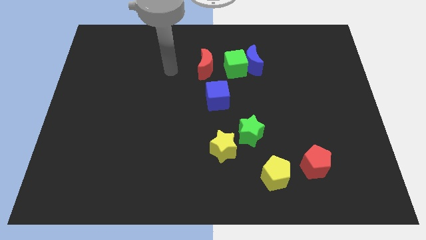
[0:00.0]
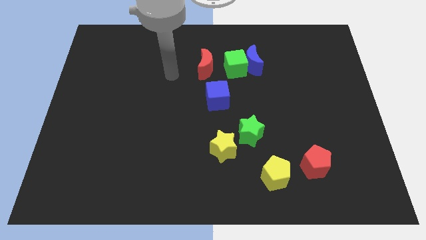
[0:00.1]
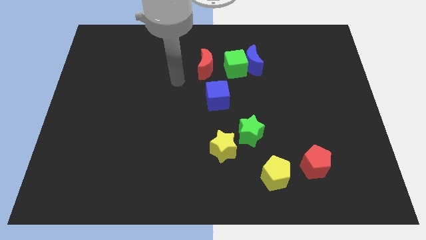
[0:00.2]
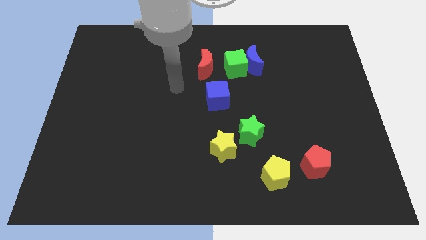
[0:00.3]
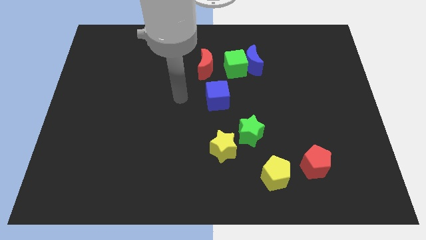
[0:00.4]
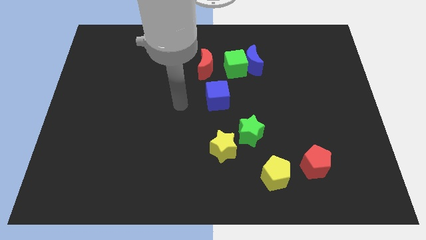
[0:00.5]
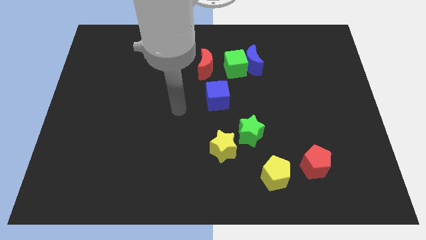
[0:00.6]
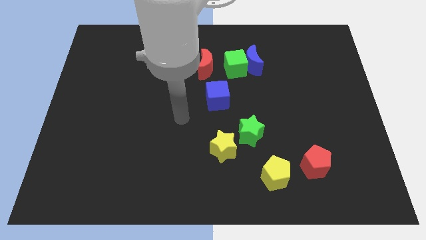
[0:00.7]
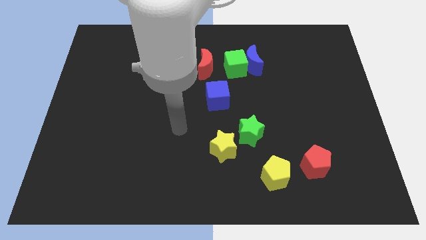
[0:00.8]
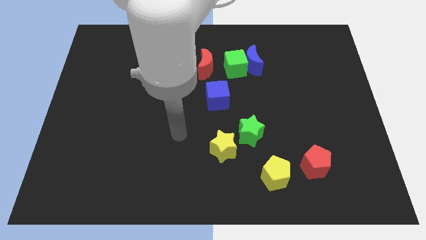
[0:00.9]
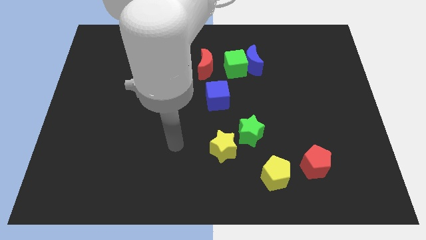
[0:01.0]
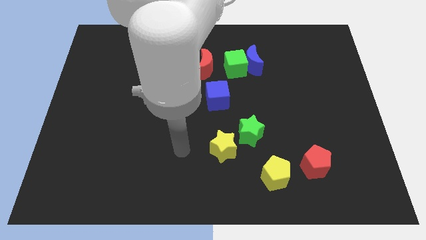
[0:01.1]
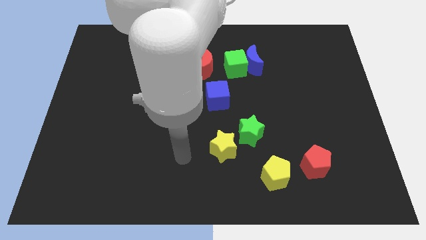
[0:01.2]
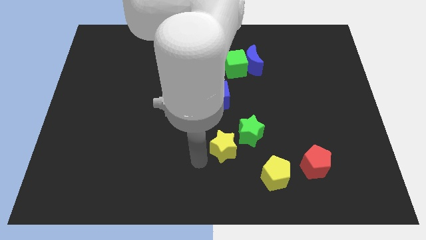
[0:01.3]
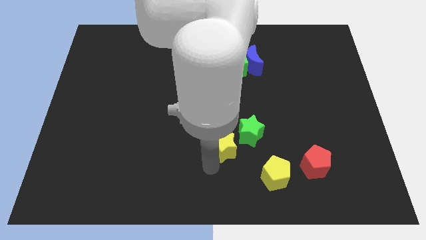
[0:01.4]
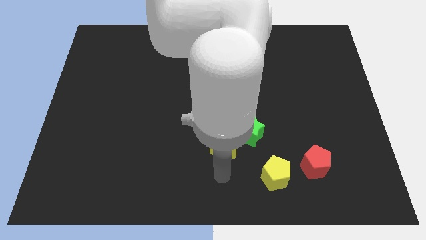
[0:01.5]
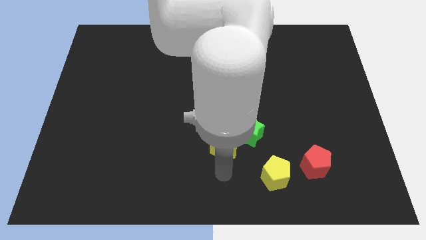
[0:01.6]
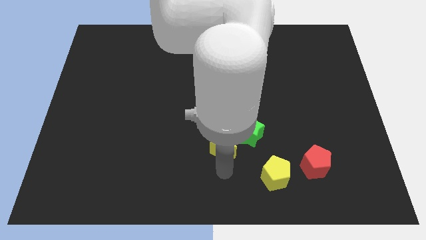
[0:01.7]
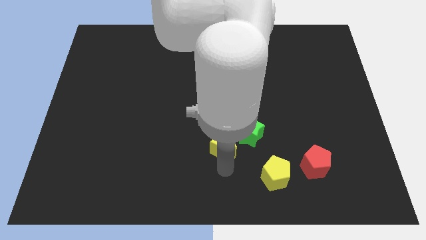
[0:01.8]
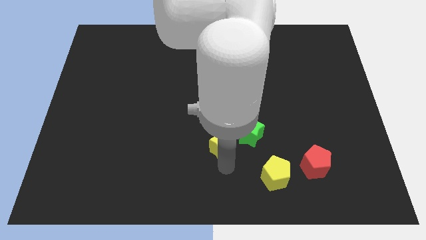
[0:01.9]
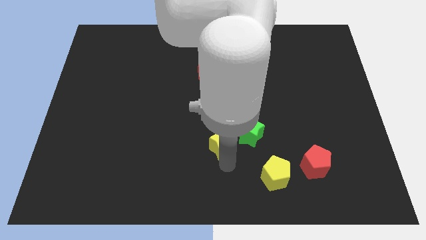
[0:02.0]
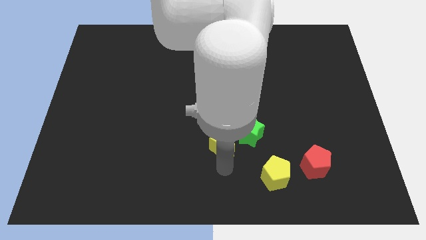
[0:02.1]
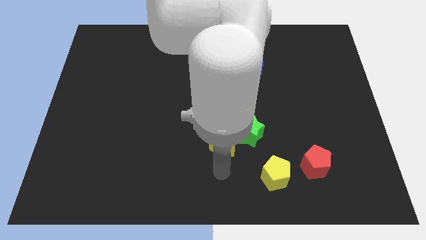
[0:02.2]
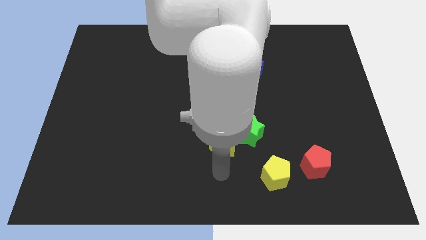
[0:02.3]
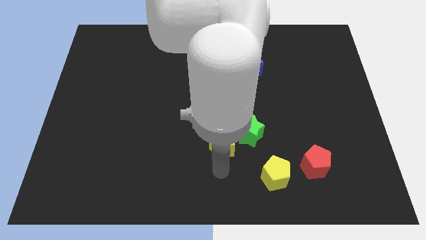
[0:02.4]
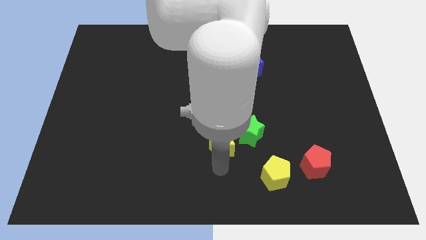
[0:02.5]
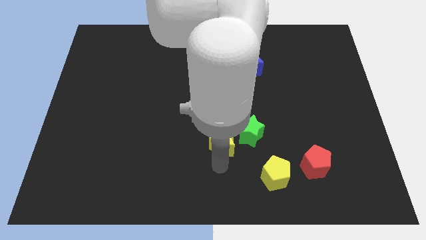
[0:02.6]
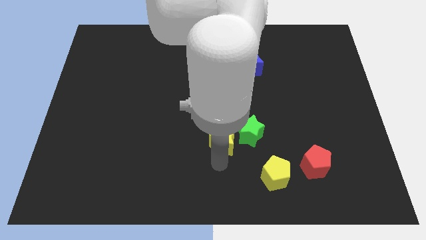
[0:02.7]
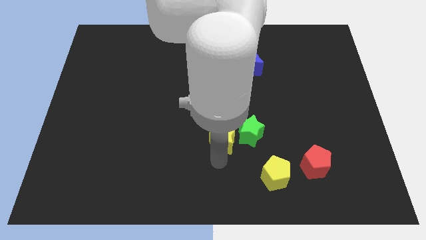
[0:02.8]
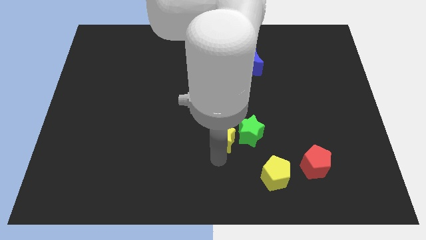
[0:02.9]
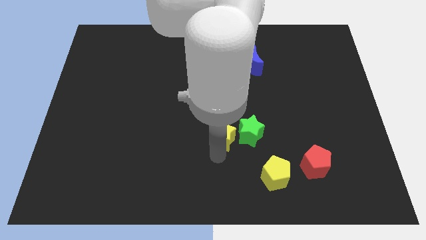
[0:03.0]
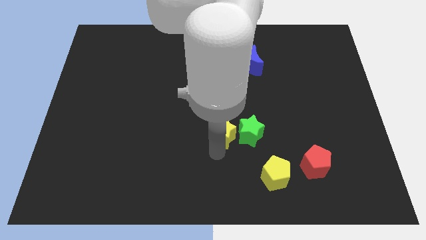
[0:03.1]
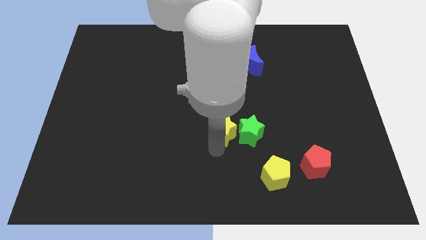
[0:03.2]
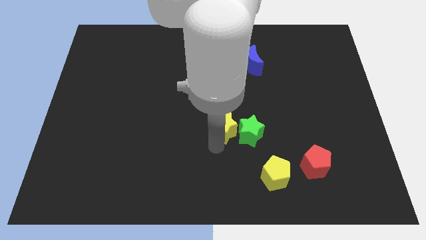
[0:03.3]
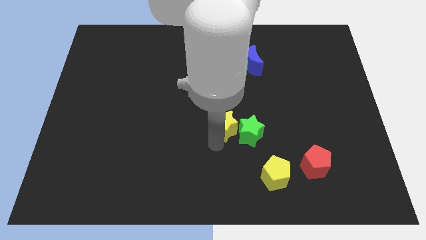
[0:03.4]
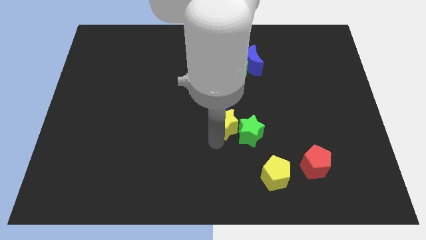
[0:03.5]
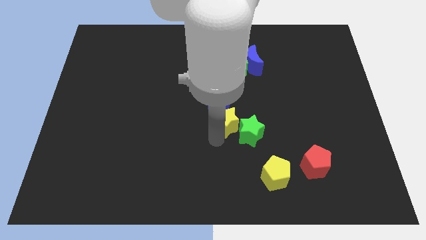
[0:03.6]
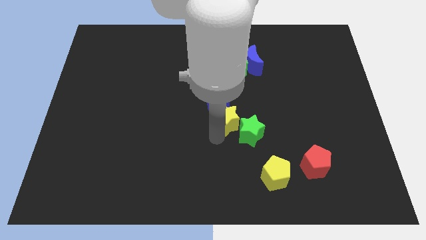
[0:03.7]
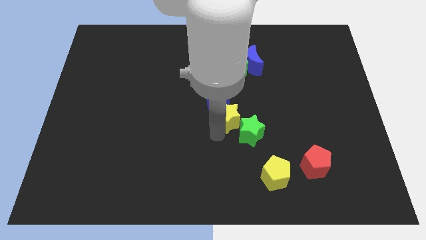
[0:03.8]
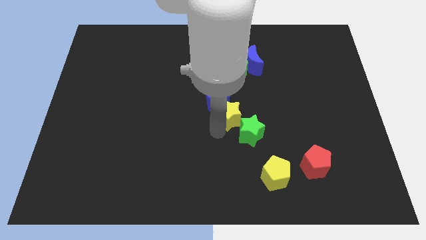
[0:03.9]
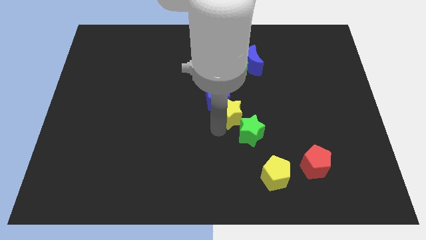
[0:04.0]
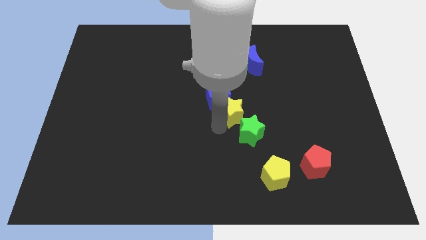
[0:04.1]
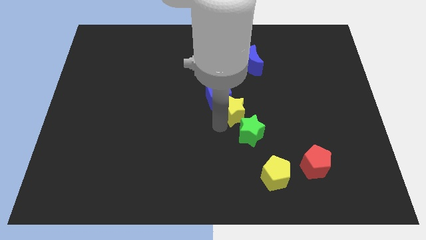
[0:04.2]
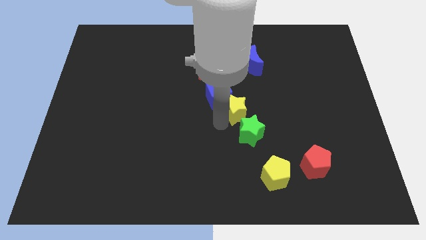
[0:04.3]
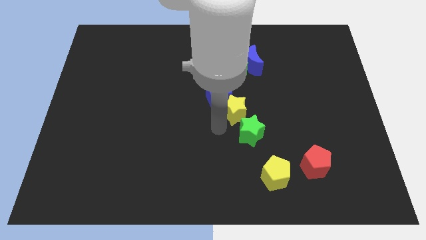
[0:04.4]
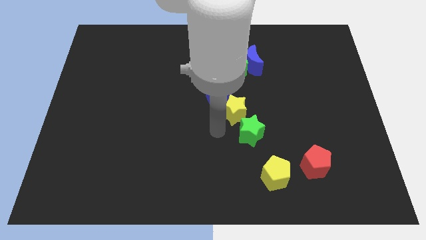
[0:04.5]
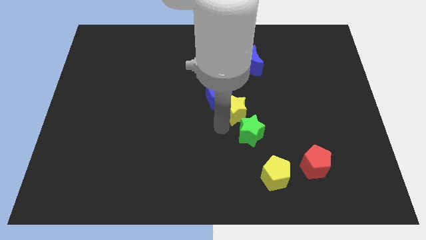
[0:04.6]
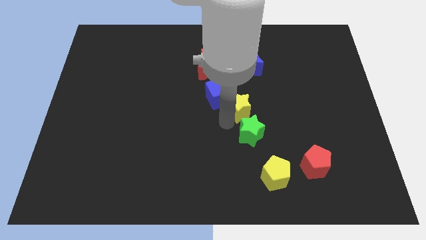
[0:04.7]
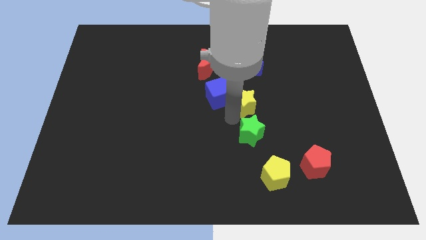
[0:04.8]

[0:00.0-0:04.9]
push the yellow star to the bottom of the blue moon

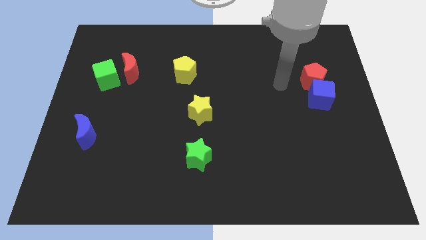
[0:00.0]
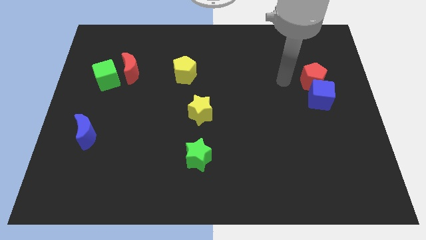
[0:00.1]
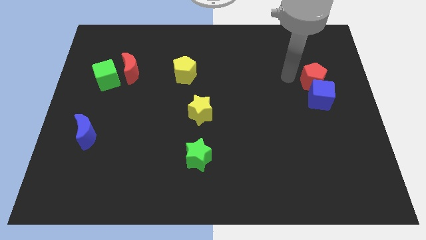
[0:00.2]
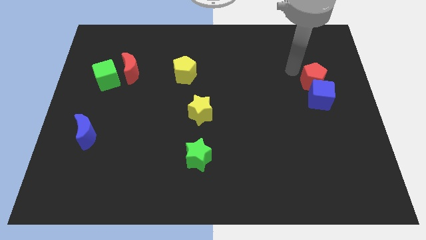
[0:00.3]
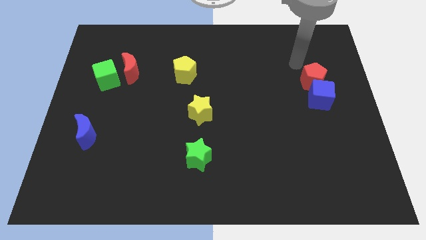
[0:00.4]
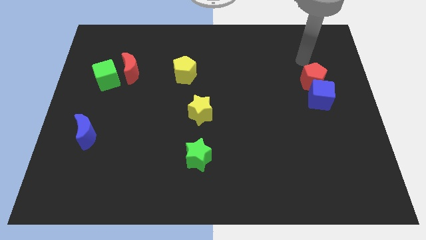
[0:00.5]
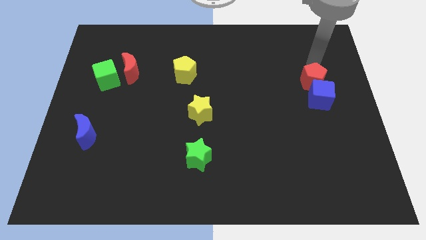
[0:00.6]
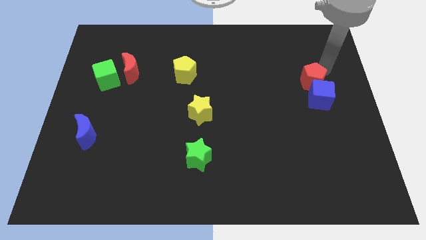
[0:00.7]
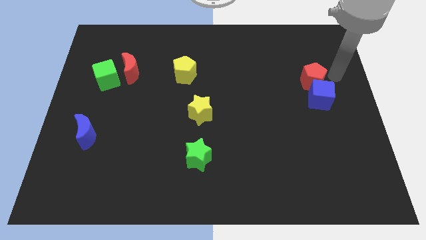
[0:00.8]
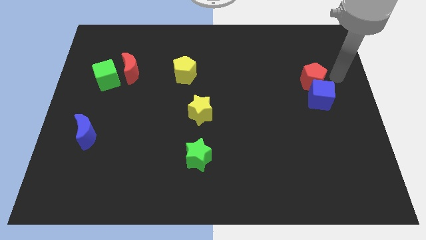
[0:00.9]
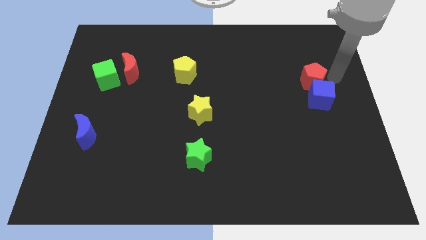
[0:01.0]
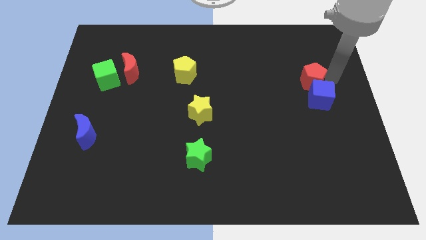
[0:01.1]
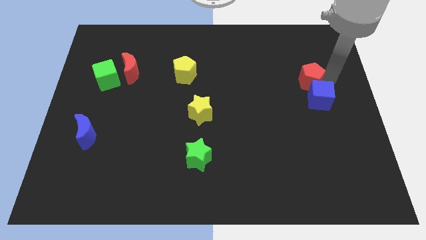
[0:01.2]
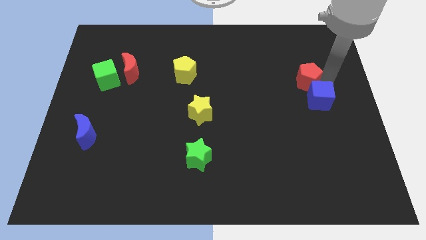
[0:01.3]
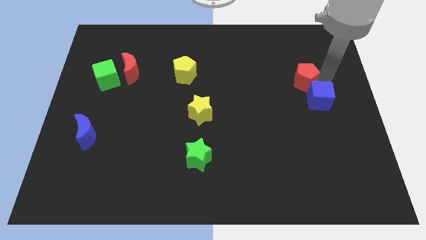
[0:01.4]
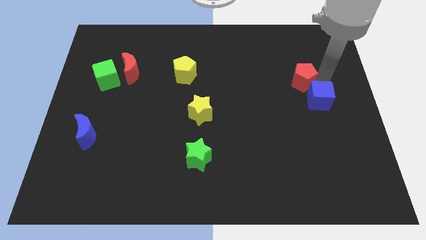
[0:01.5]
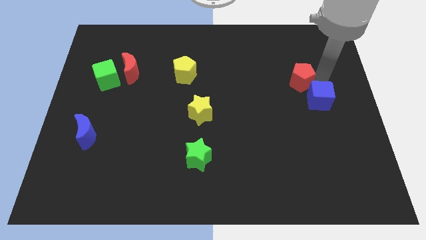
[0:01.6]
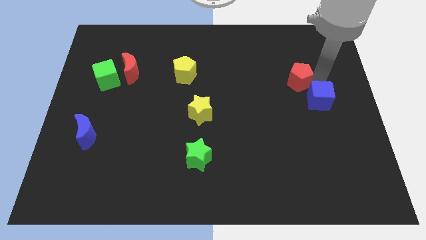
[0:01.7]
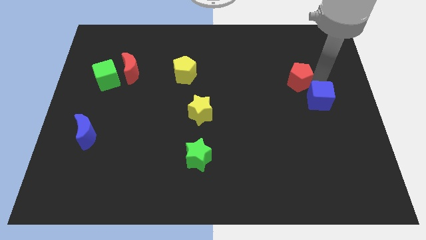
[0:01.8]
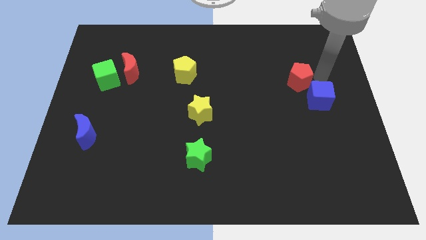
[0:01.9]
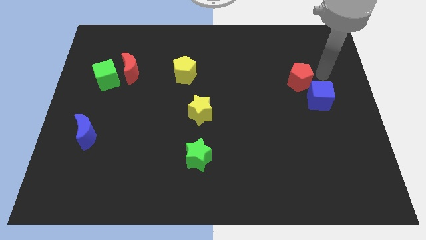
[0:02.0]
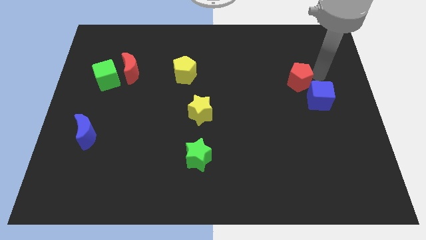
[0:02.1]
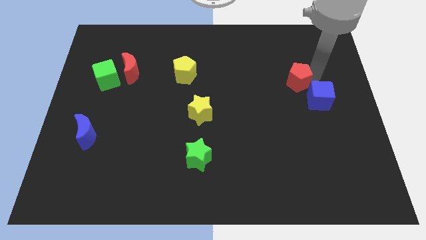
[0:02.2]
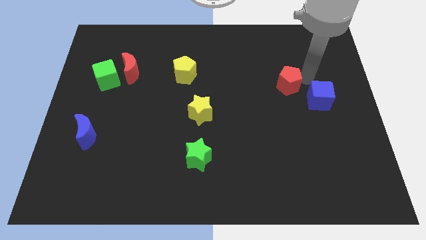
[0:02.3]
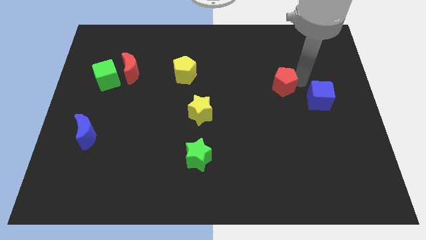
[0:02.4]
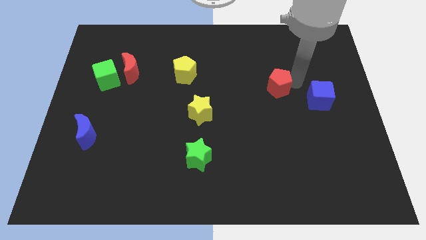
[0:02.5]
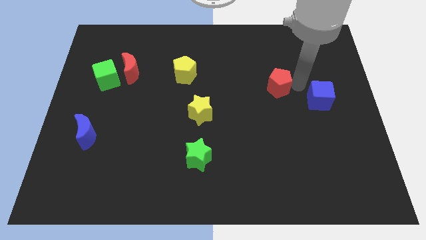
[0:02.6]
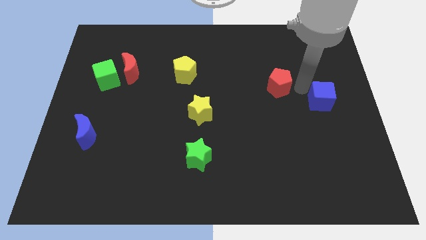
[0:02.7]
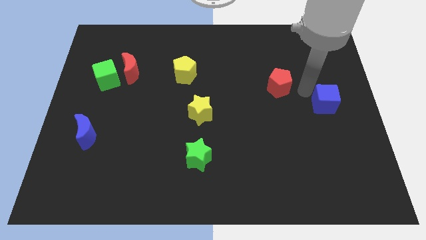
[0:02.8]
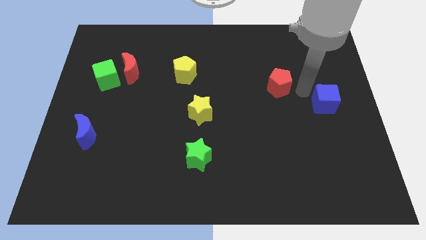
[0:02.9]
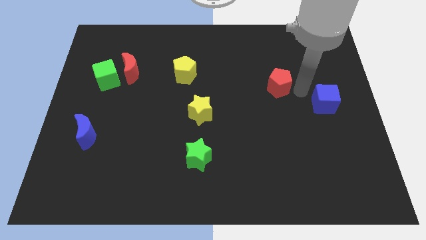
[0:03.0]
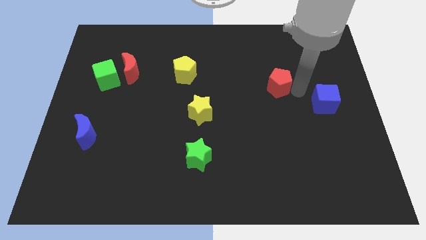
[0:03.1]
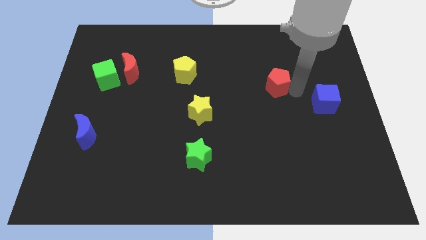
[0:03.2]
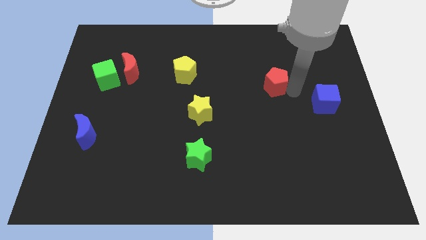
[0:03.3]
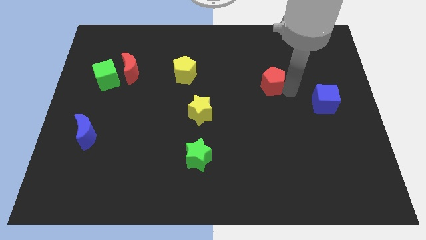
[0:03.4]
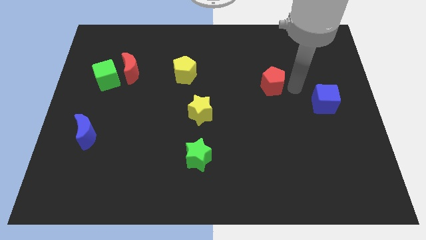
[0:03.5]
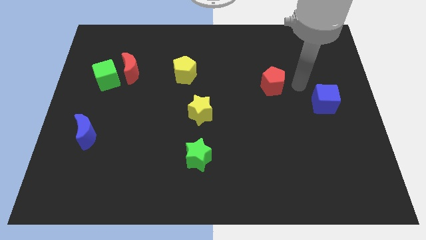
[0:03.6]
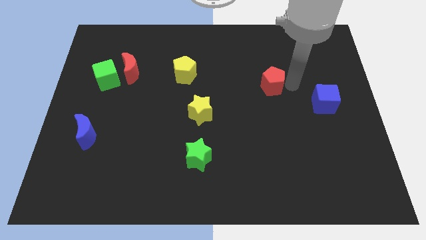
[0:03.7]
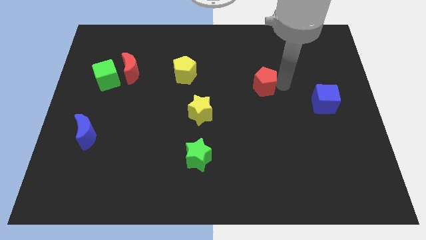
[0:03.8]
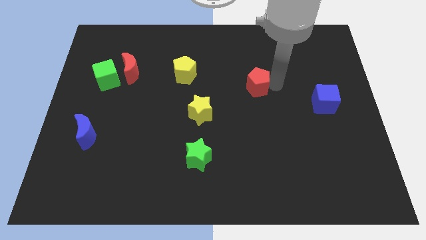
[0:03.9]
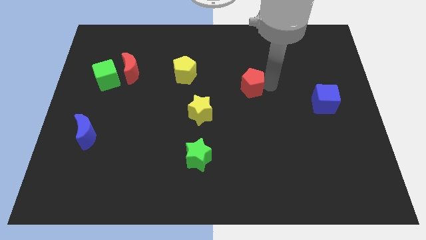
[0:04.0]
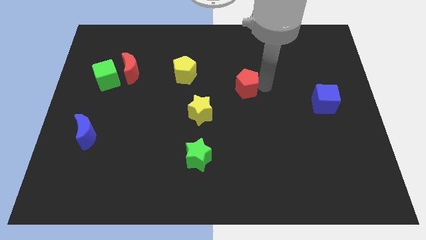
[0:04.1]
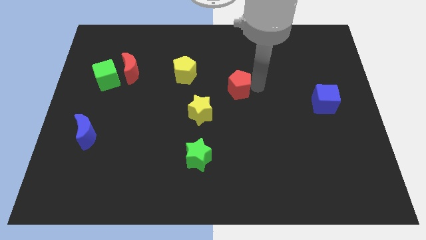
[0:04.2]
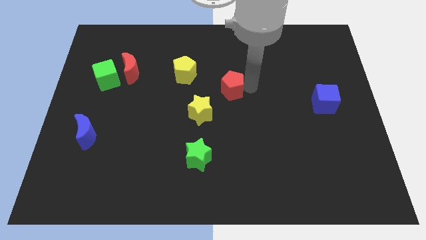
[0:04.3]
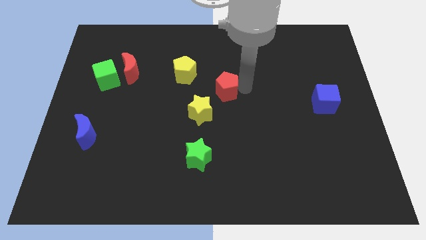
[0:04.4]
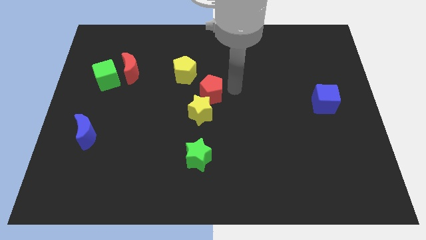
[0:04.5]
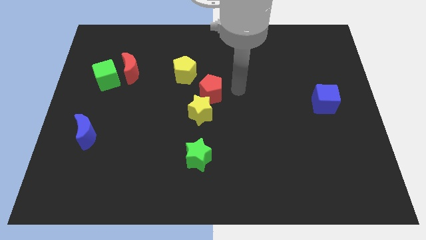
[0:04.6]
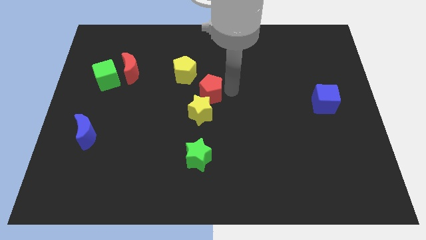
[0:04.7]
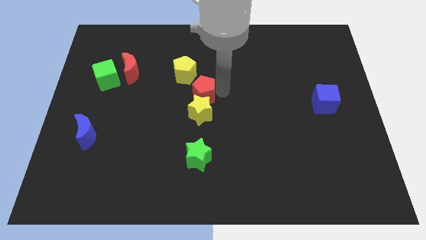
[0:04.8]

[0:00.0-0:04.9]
put the red pentagon diagonally up and to the left of the yellow star
